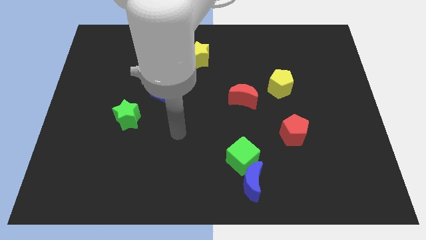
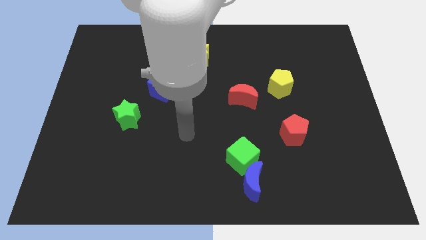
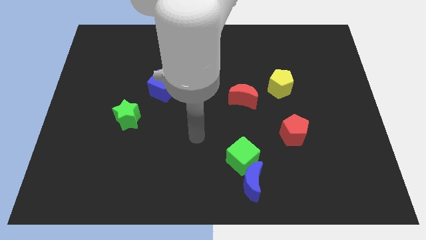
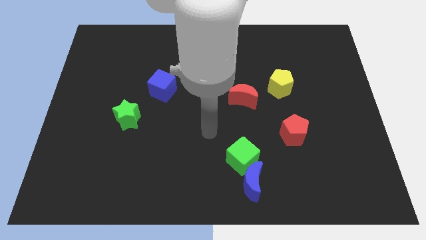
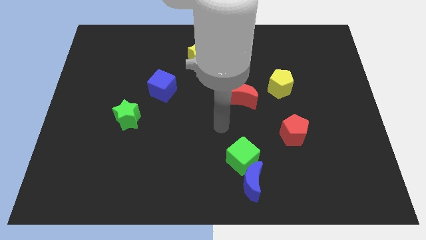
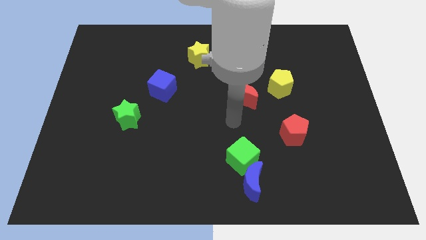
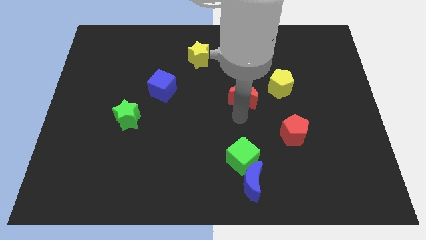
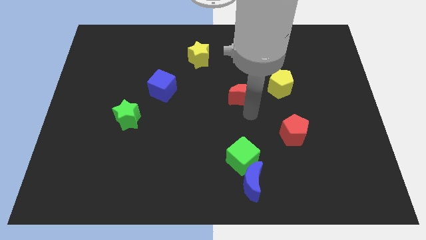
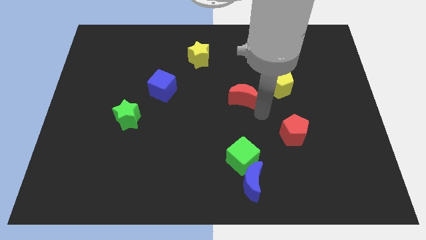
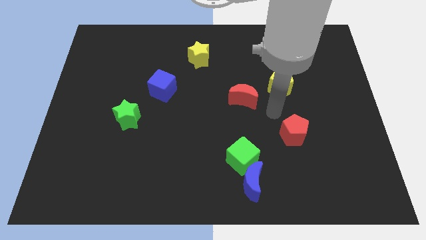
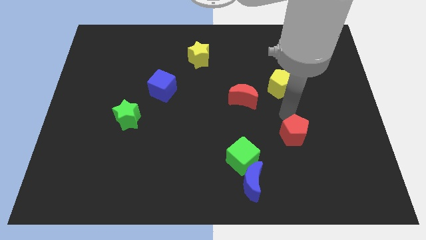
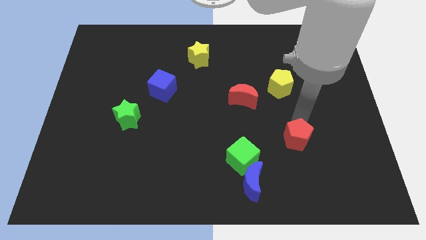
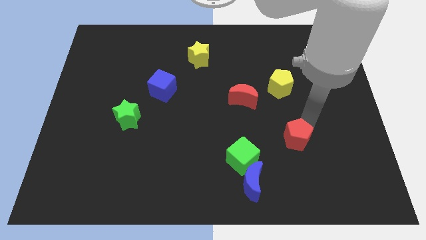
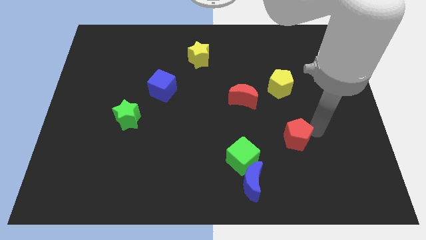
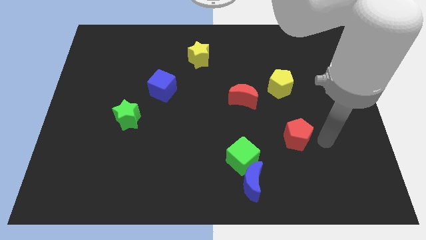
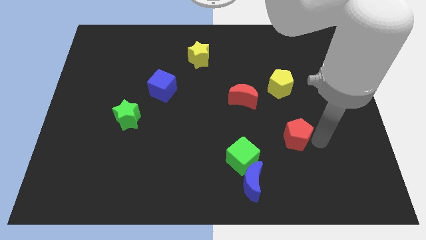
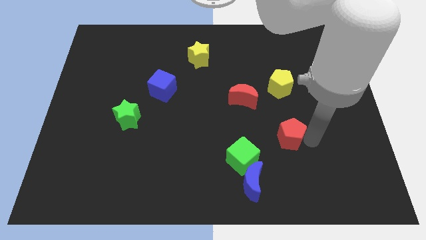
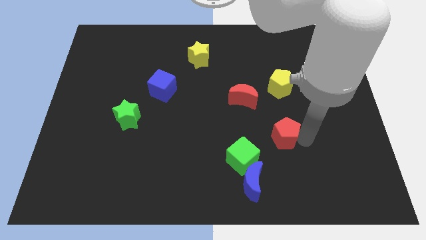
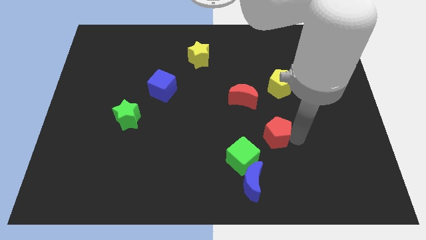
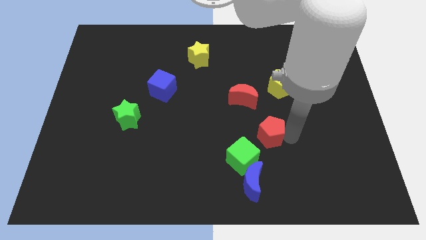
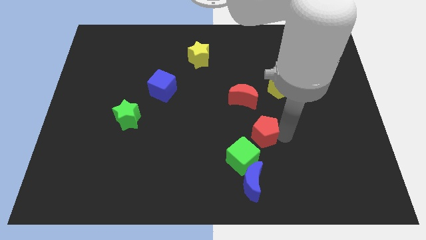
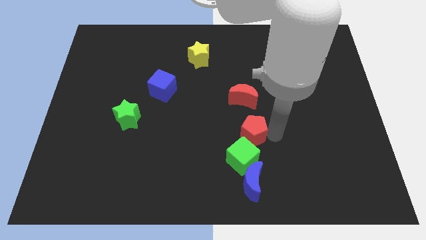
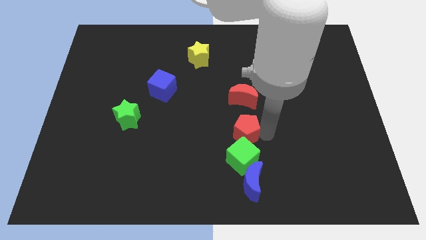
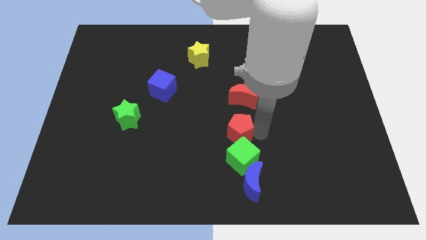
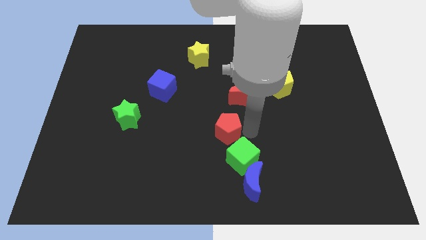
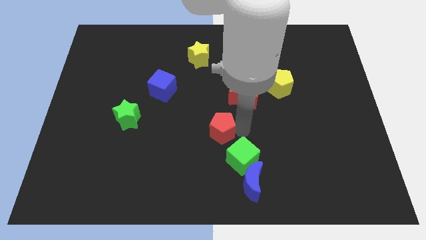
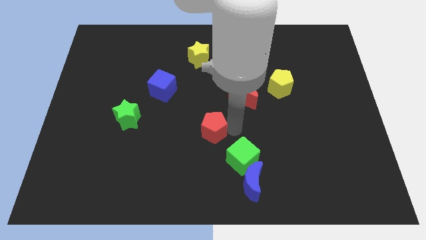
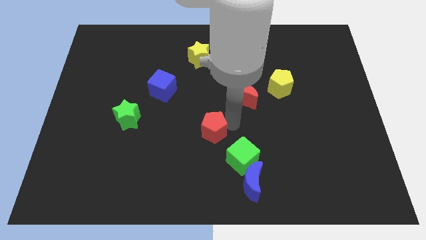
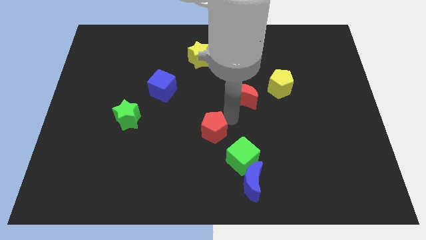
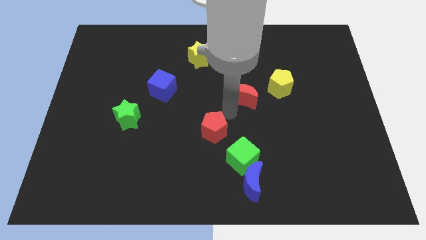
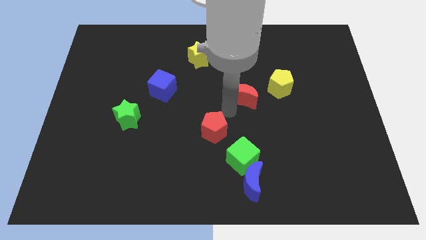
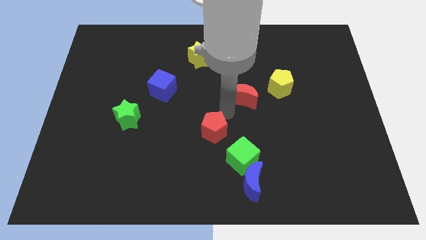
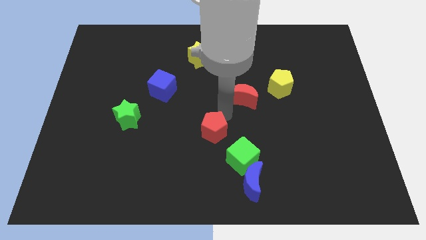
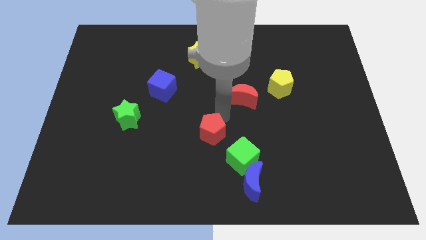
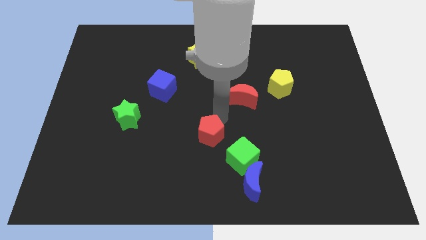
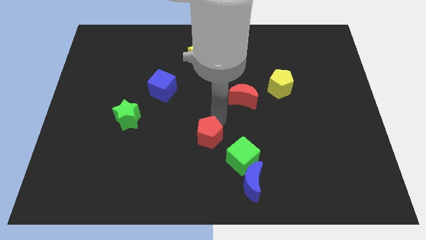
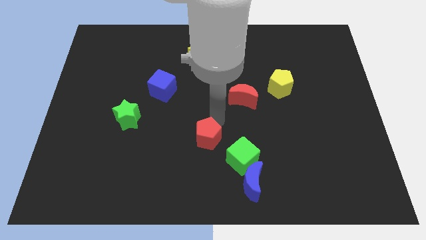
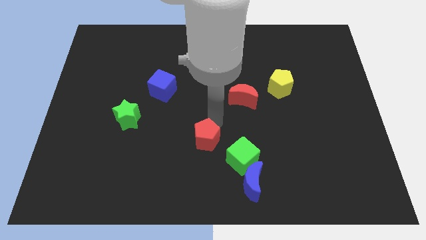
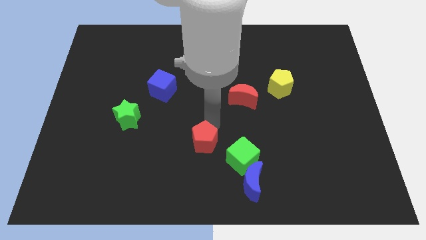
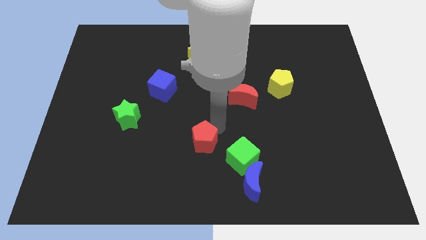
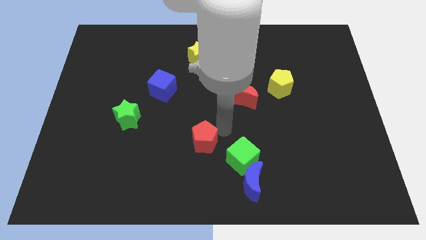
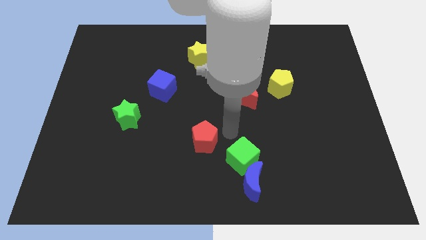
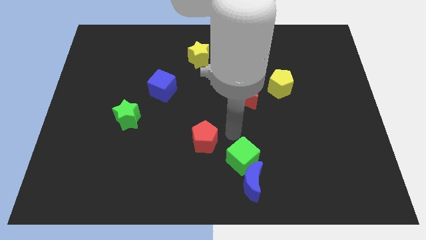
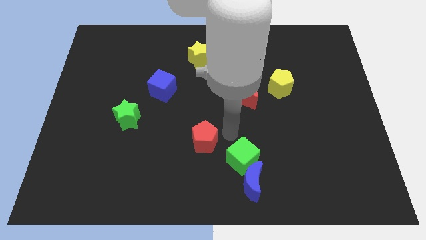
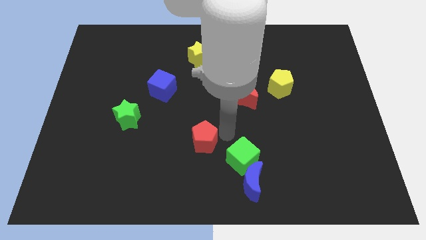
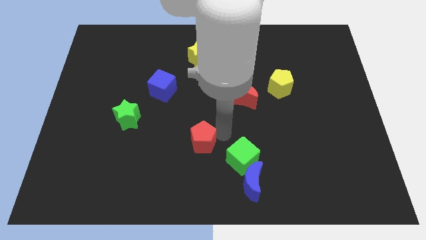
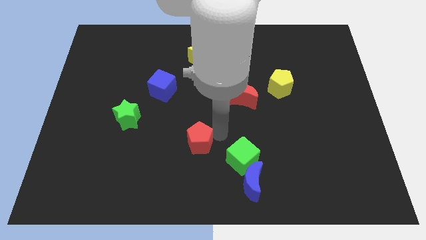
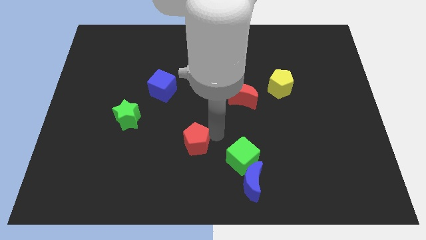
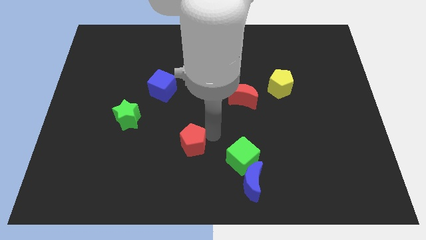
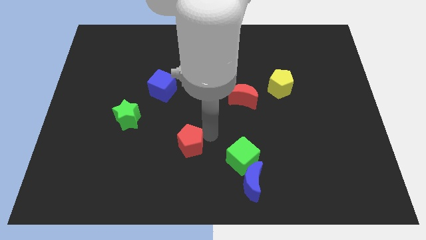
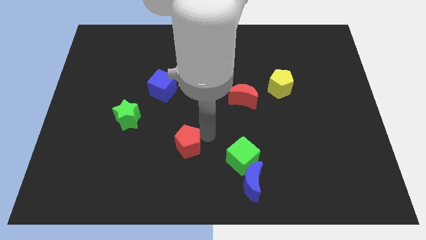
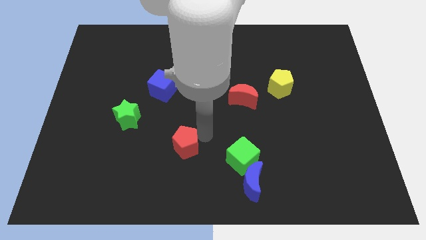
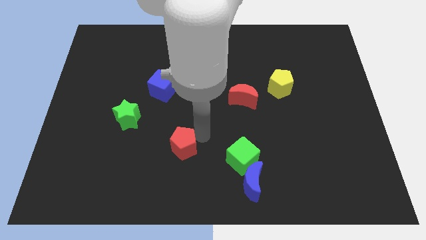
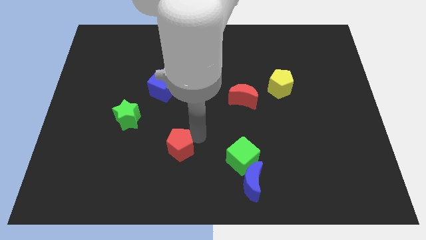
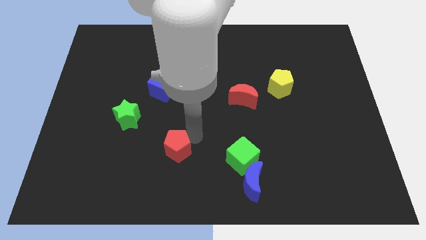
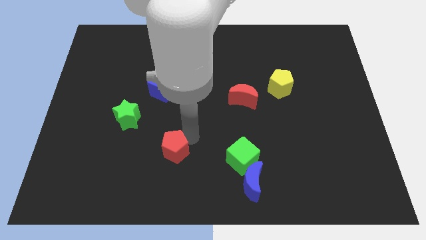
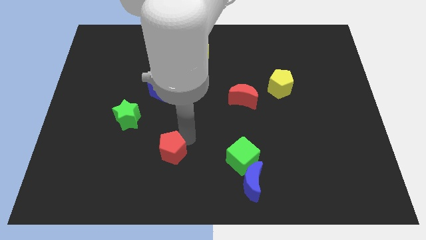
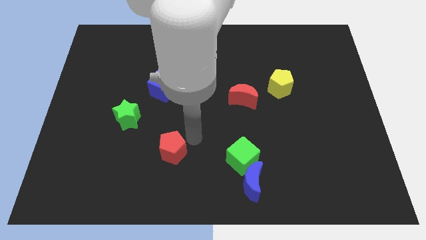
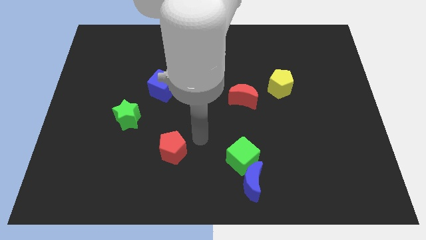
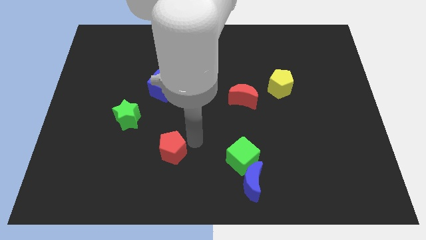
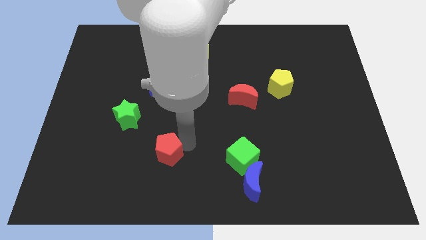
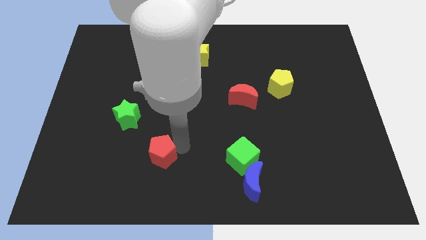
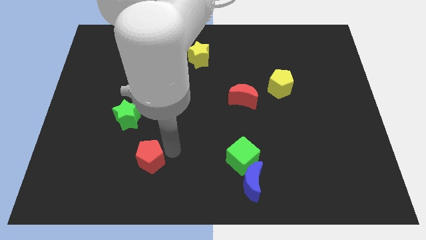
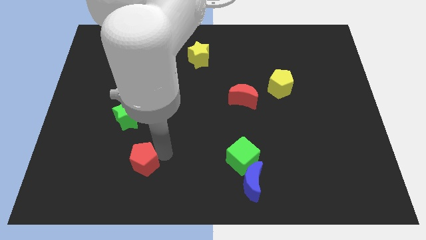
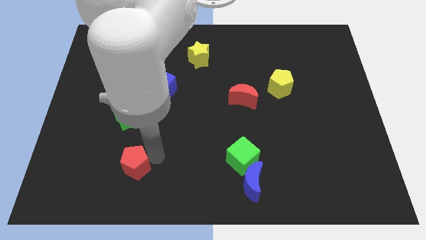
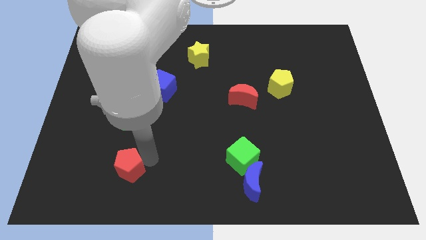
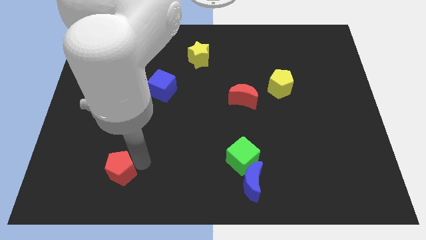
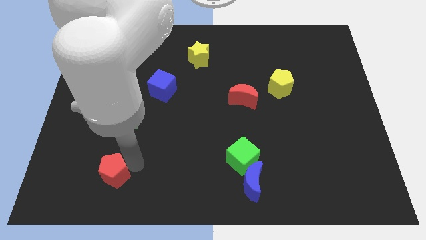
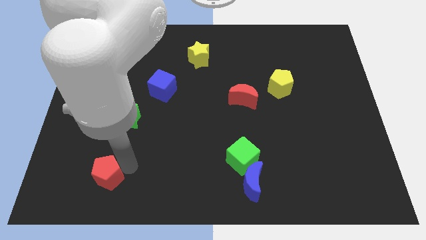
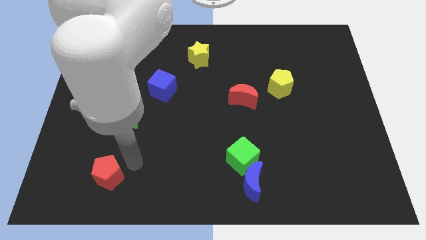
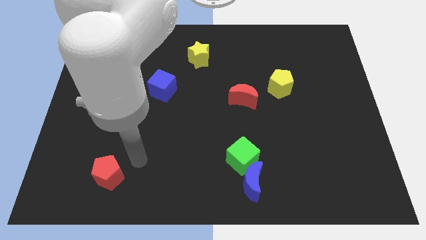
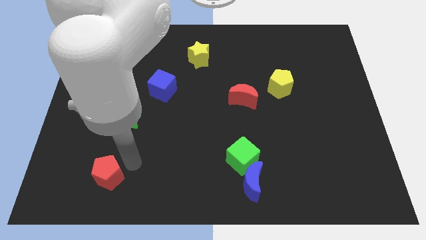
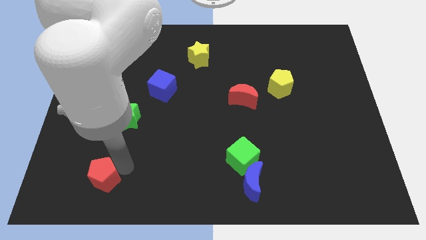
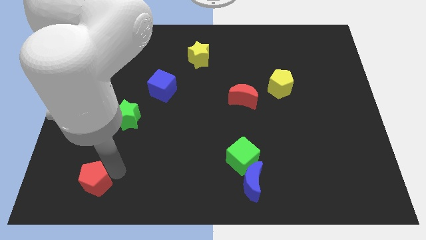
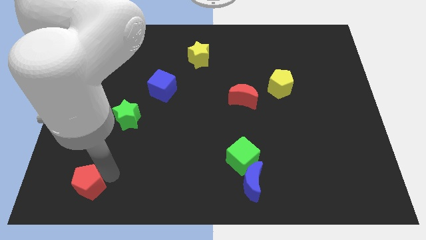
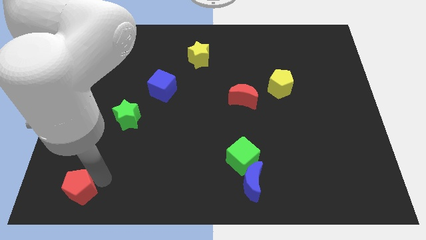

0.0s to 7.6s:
move the red pentagon to the bottom left corner
